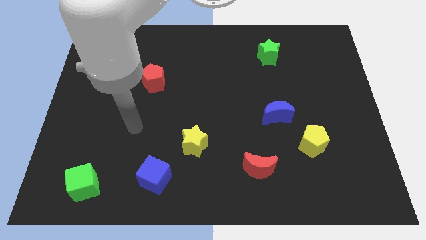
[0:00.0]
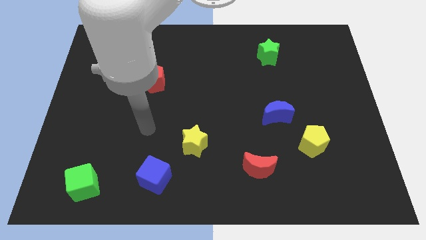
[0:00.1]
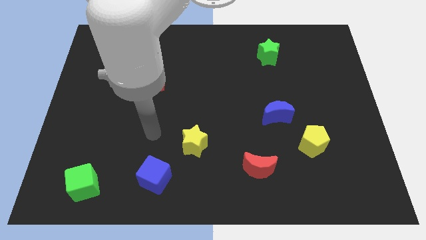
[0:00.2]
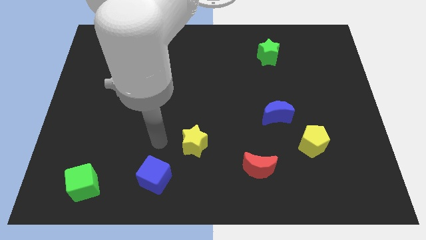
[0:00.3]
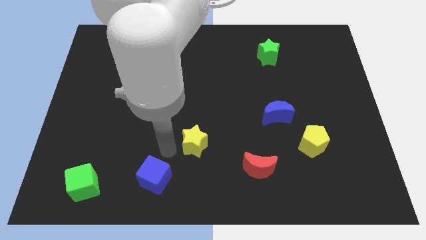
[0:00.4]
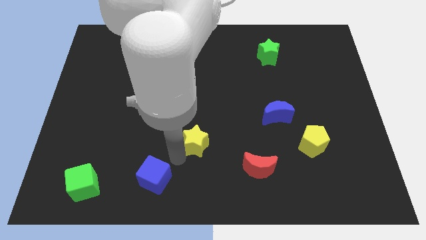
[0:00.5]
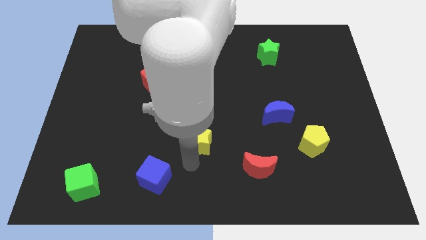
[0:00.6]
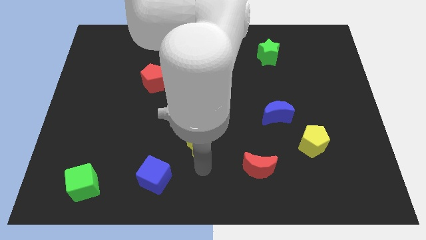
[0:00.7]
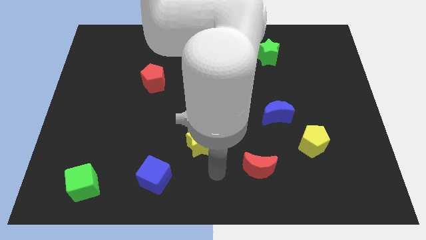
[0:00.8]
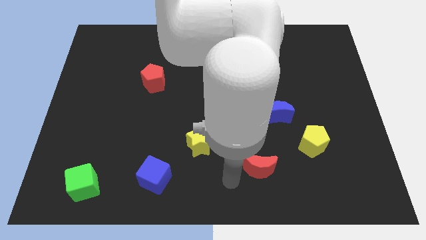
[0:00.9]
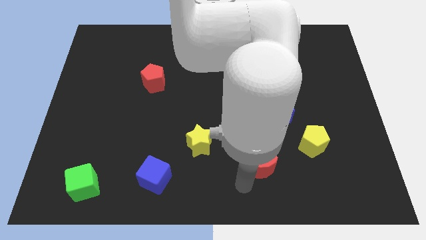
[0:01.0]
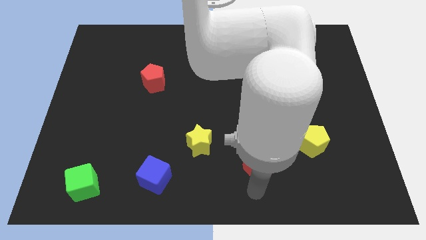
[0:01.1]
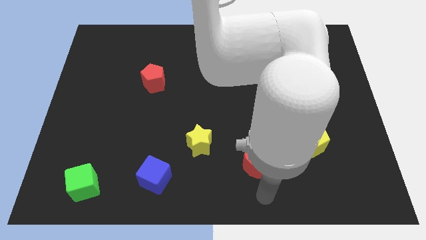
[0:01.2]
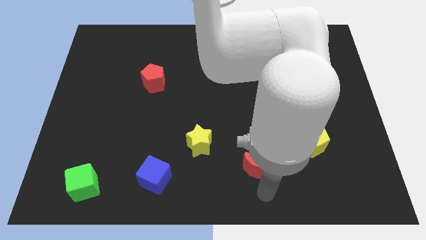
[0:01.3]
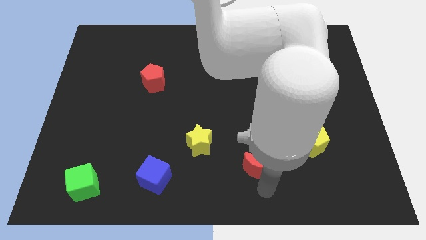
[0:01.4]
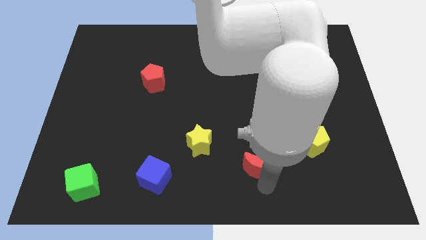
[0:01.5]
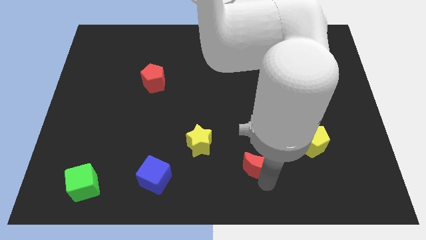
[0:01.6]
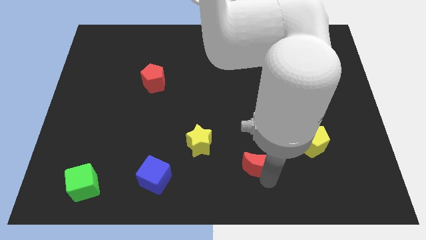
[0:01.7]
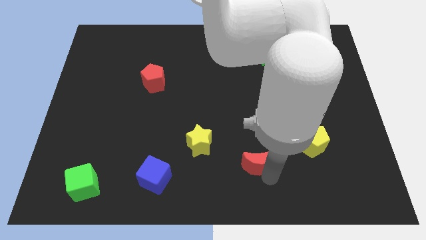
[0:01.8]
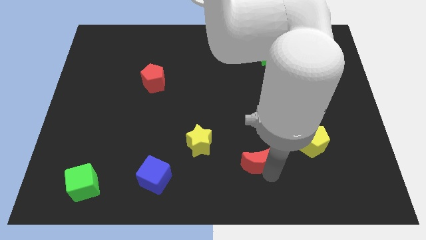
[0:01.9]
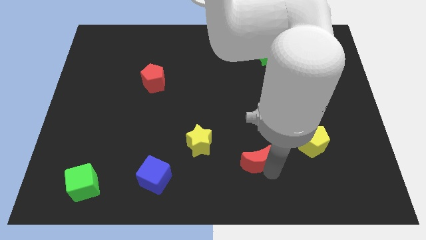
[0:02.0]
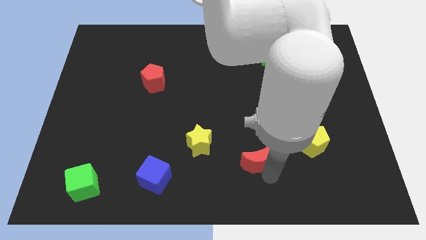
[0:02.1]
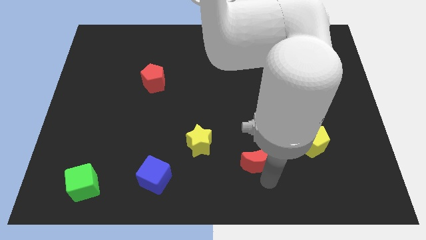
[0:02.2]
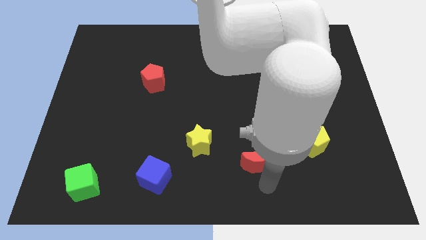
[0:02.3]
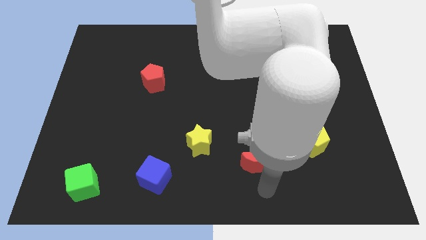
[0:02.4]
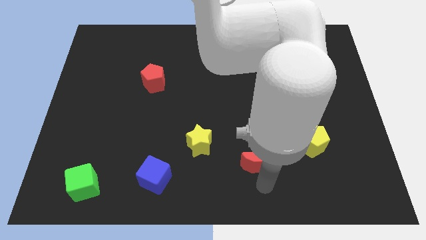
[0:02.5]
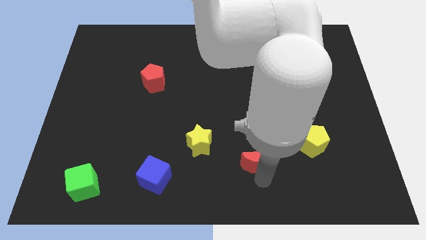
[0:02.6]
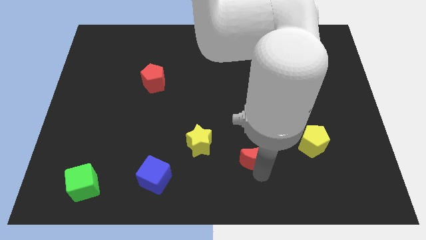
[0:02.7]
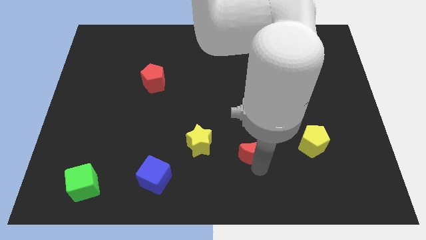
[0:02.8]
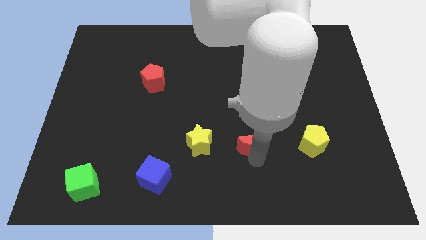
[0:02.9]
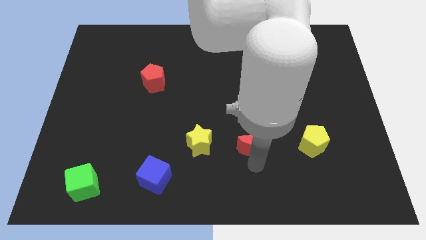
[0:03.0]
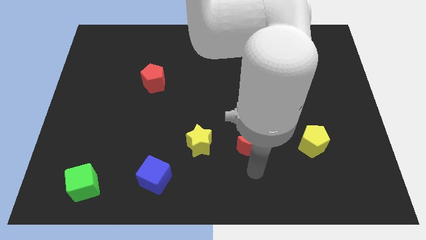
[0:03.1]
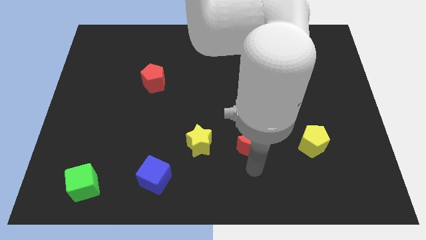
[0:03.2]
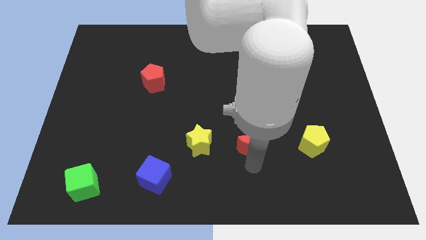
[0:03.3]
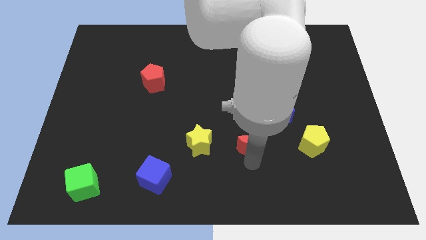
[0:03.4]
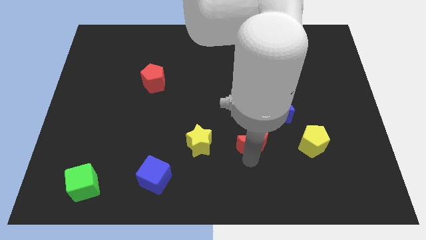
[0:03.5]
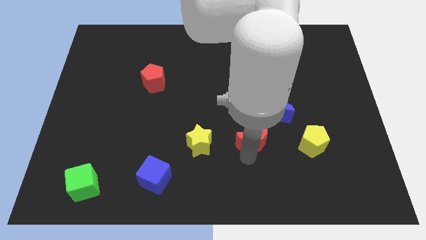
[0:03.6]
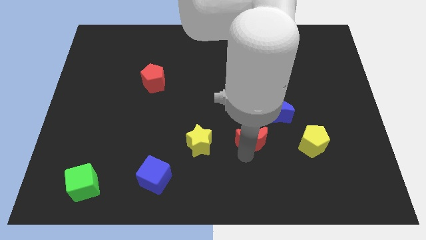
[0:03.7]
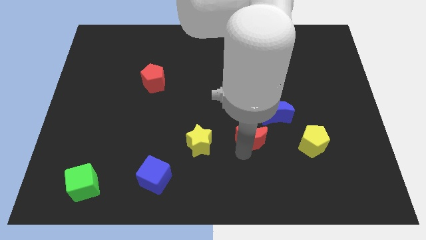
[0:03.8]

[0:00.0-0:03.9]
slightly push the red moon up

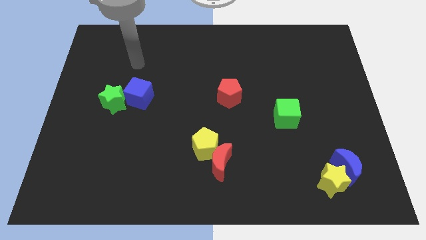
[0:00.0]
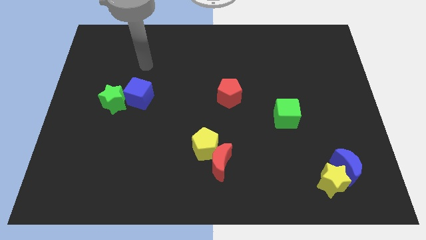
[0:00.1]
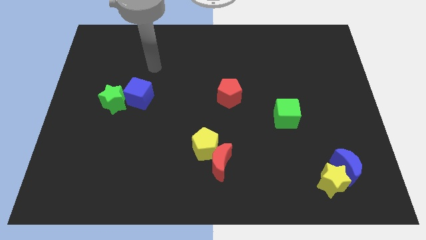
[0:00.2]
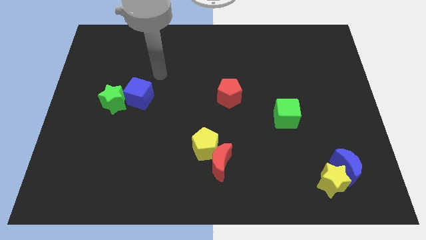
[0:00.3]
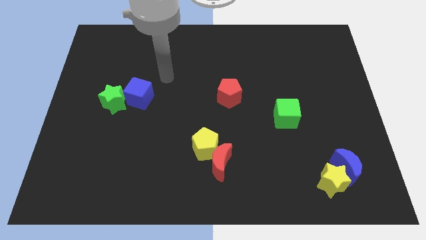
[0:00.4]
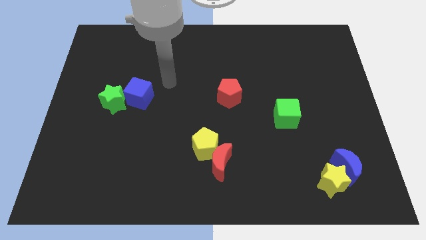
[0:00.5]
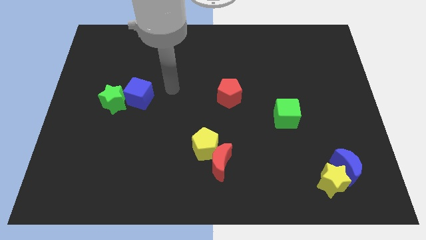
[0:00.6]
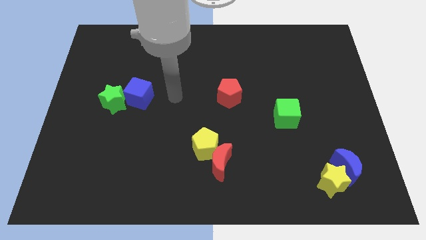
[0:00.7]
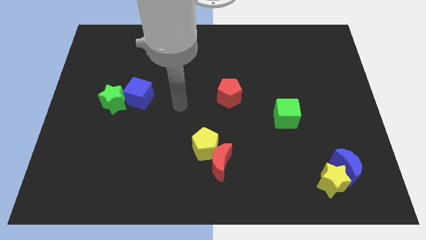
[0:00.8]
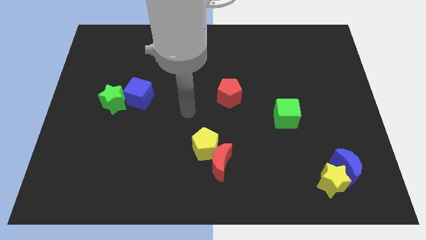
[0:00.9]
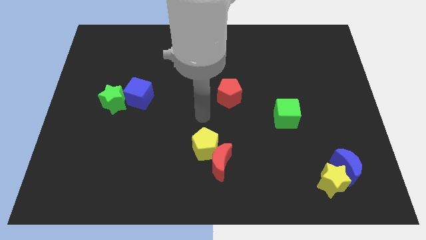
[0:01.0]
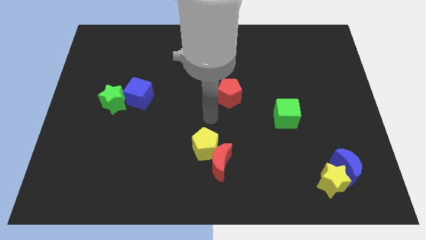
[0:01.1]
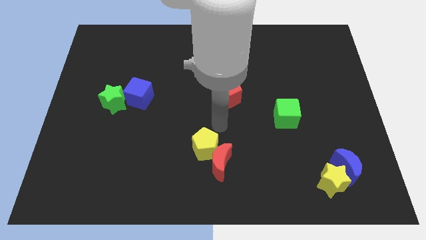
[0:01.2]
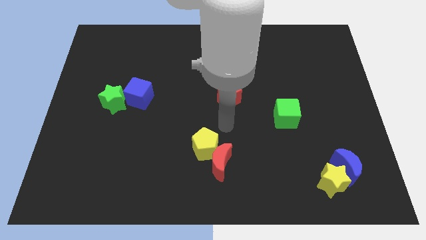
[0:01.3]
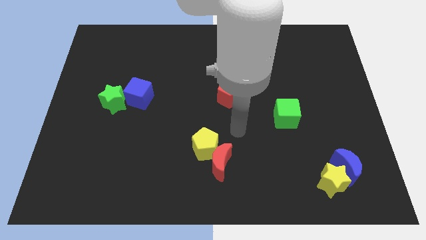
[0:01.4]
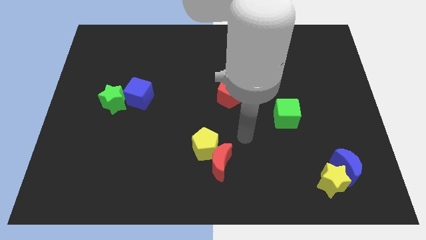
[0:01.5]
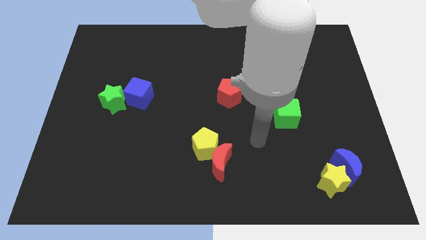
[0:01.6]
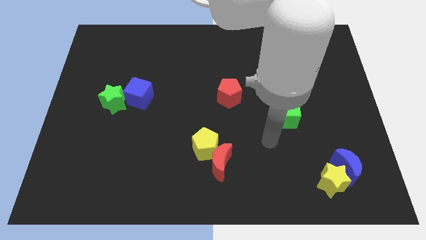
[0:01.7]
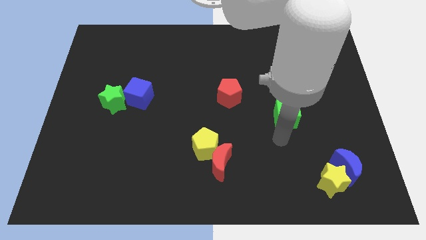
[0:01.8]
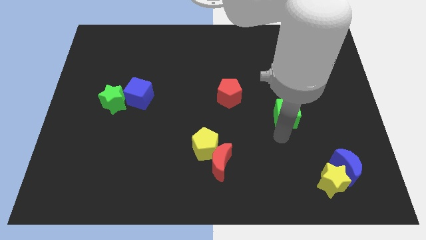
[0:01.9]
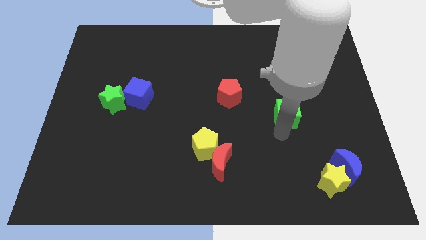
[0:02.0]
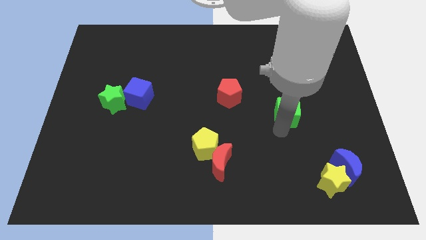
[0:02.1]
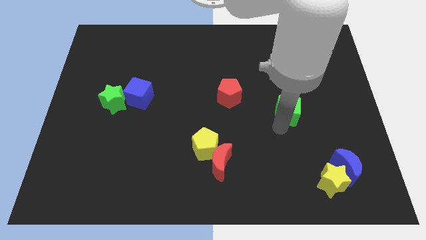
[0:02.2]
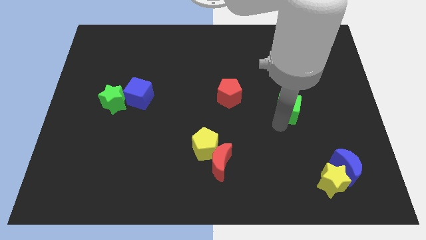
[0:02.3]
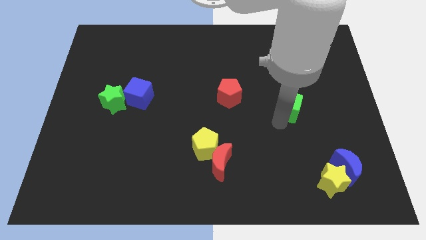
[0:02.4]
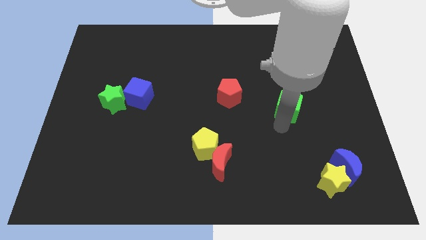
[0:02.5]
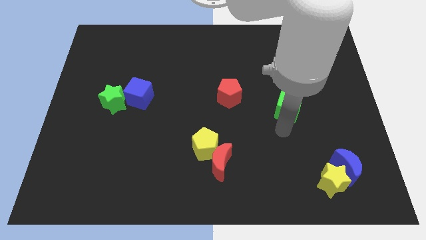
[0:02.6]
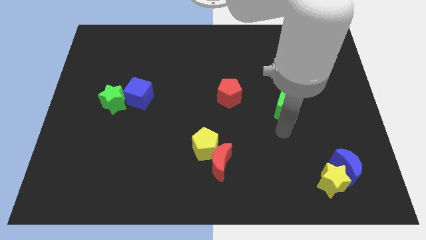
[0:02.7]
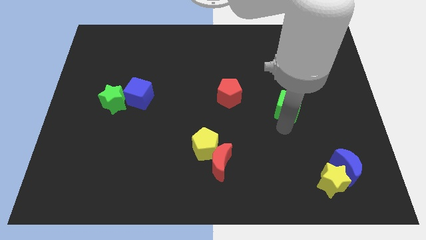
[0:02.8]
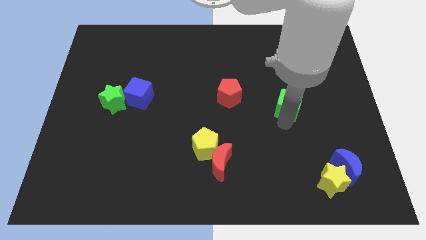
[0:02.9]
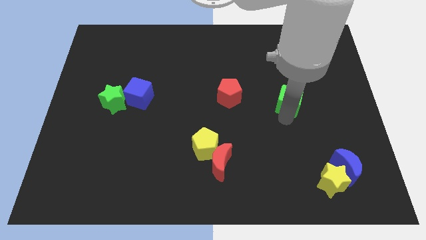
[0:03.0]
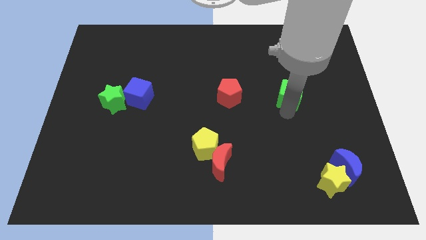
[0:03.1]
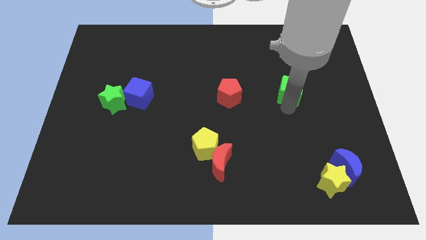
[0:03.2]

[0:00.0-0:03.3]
slightly push the green cube up

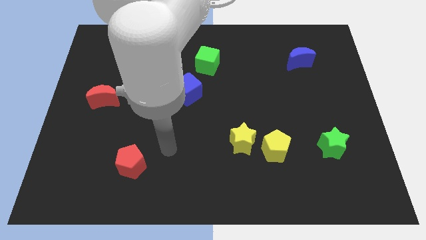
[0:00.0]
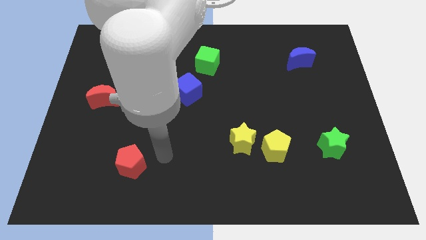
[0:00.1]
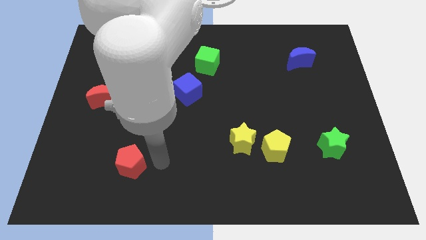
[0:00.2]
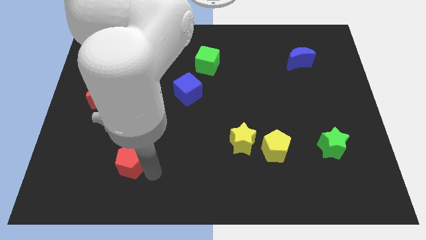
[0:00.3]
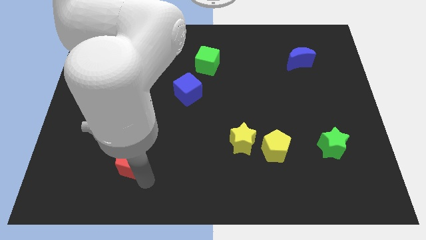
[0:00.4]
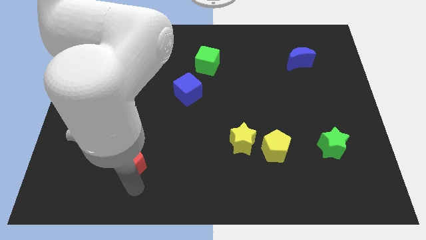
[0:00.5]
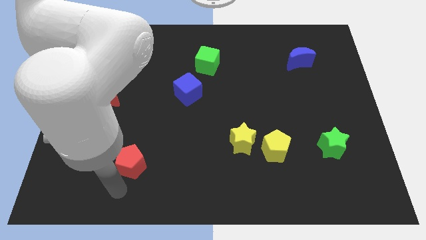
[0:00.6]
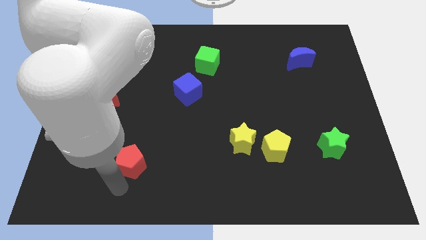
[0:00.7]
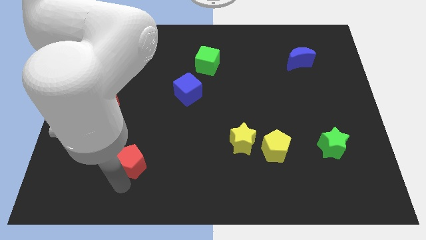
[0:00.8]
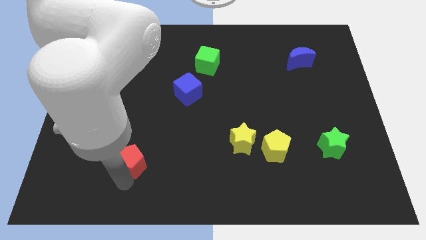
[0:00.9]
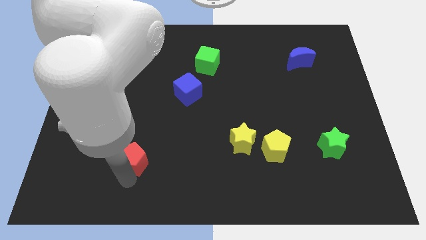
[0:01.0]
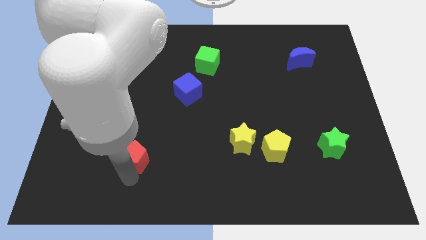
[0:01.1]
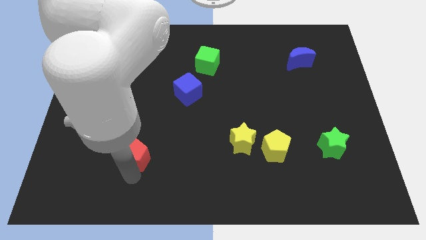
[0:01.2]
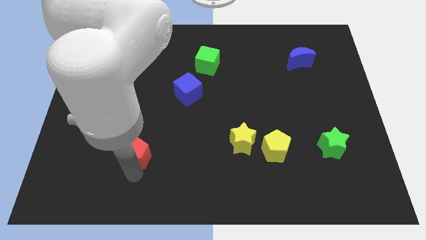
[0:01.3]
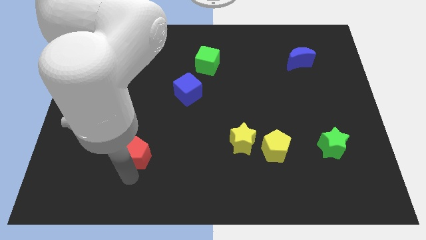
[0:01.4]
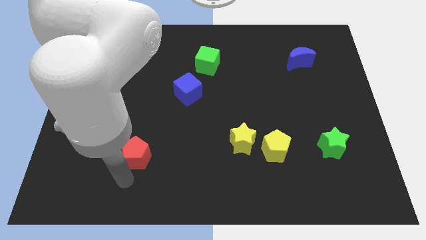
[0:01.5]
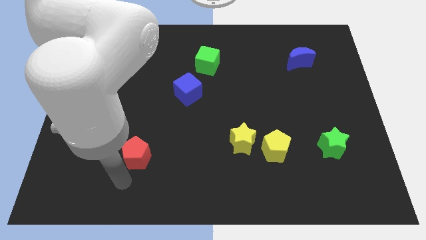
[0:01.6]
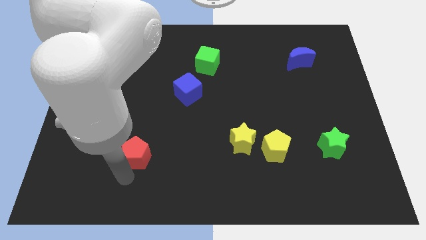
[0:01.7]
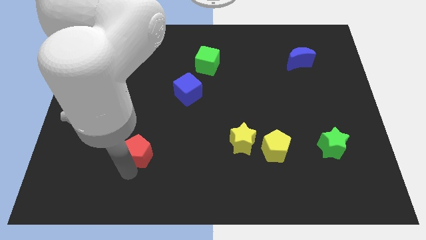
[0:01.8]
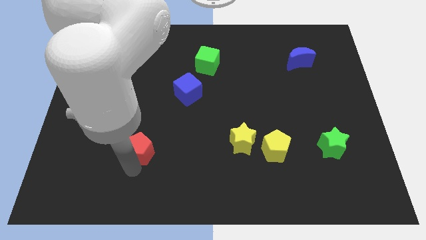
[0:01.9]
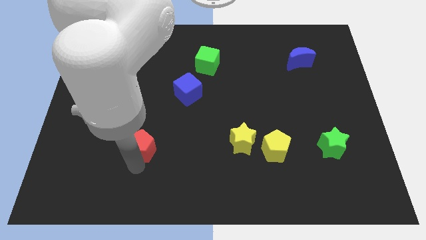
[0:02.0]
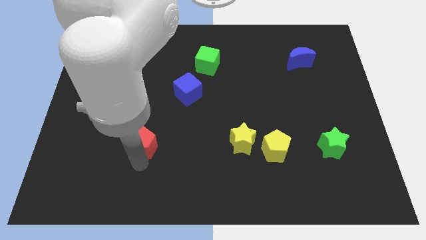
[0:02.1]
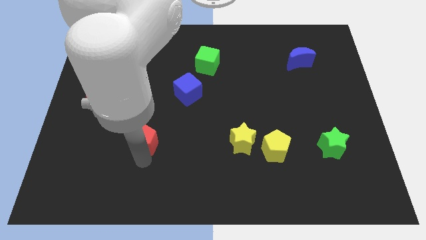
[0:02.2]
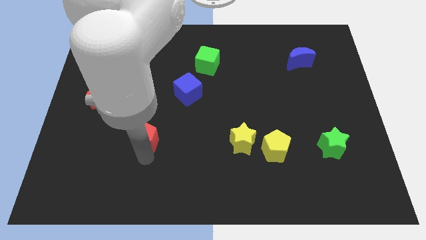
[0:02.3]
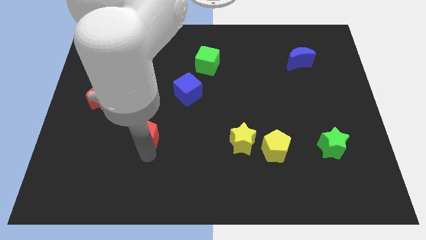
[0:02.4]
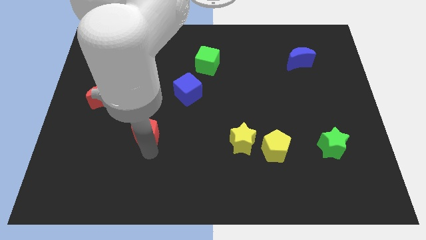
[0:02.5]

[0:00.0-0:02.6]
move the red pentagon upwards a little
